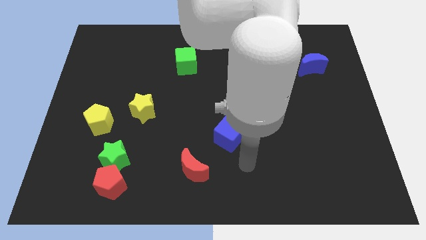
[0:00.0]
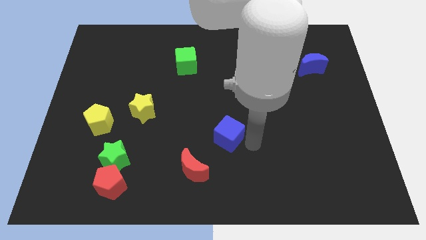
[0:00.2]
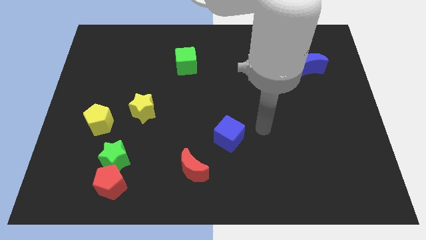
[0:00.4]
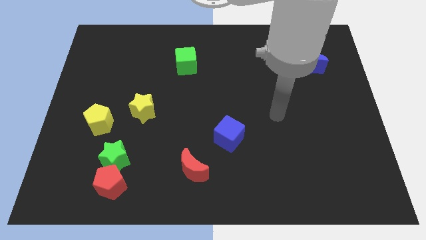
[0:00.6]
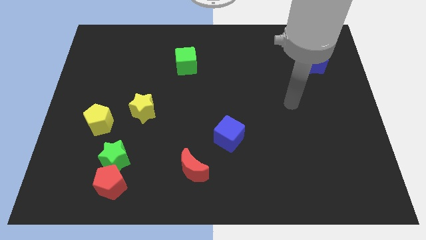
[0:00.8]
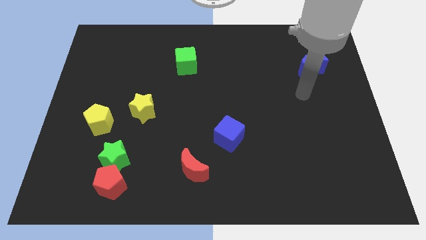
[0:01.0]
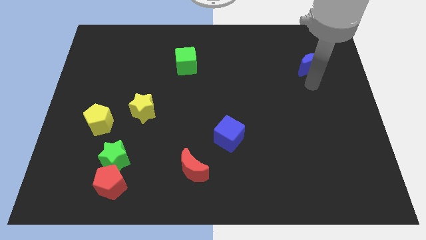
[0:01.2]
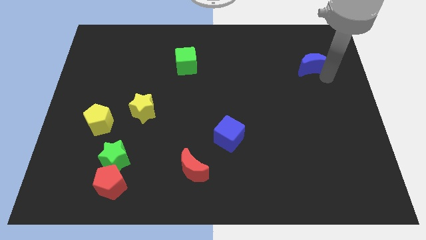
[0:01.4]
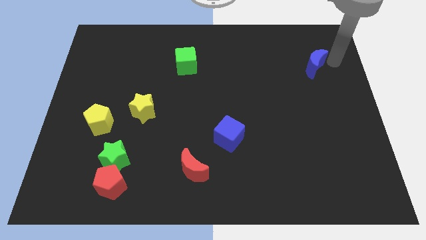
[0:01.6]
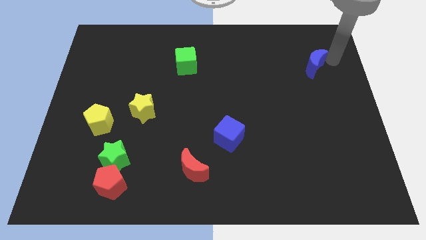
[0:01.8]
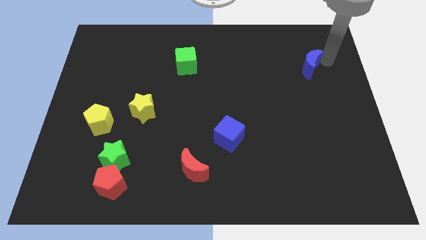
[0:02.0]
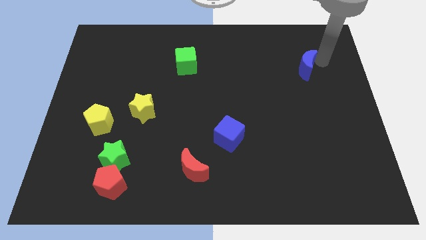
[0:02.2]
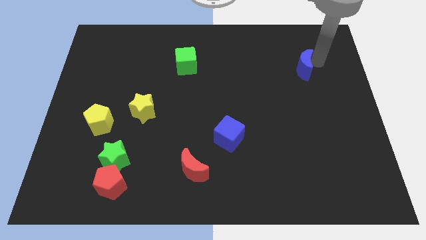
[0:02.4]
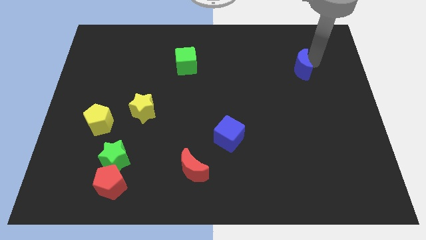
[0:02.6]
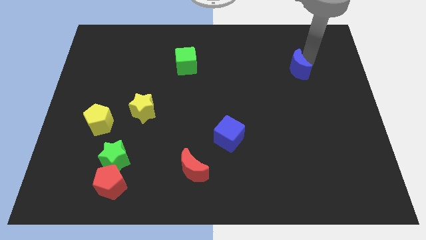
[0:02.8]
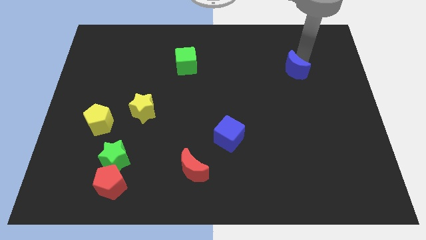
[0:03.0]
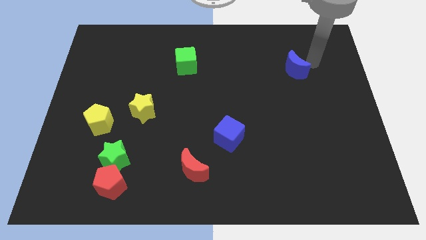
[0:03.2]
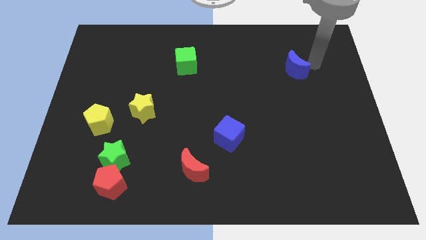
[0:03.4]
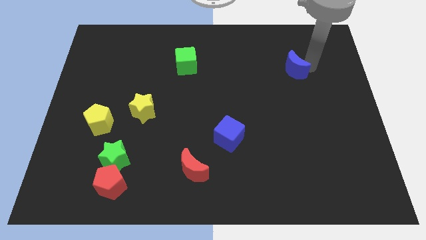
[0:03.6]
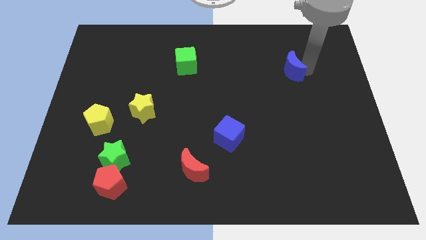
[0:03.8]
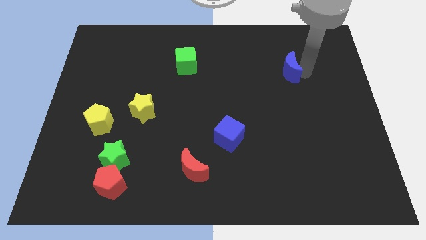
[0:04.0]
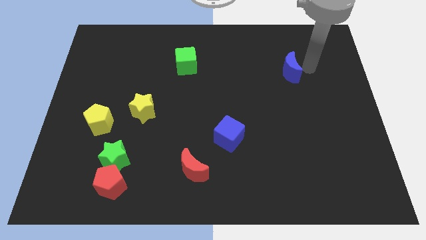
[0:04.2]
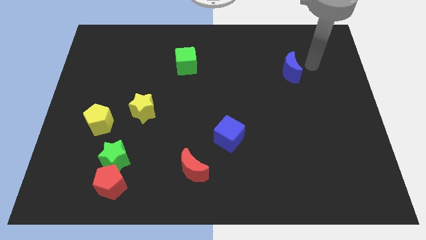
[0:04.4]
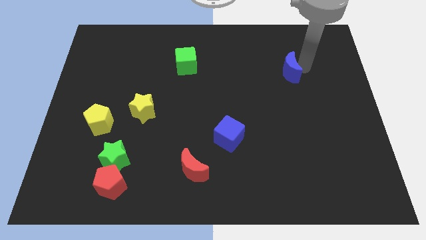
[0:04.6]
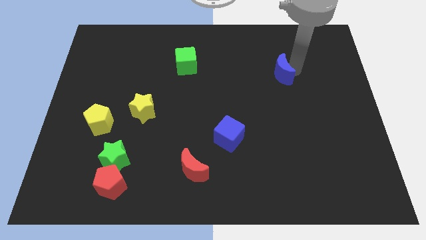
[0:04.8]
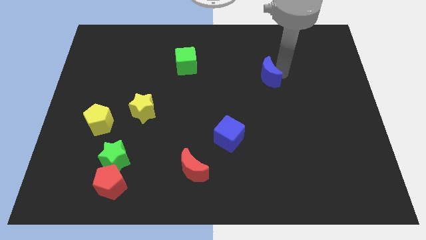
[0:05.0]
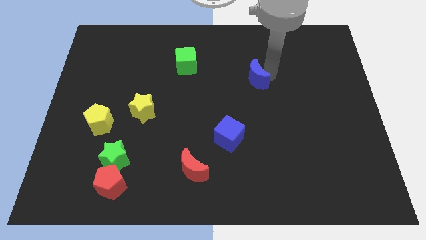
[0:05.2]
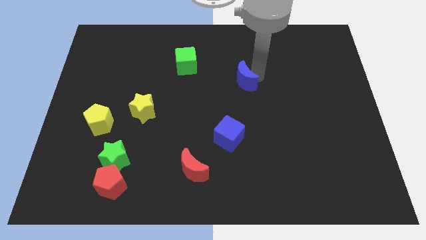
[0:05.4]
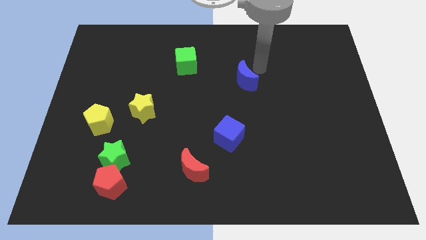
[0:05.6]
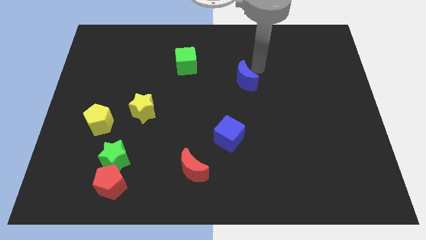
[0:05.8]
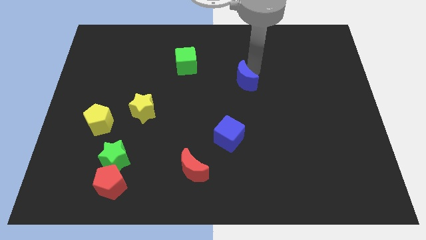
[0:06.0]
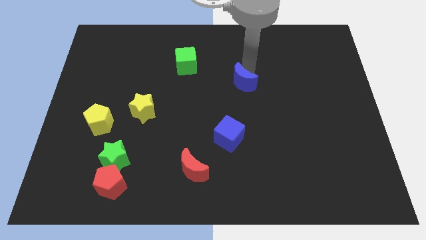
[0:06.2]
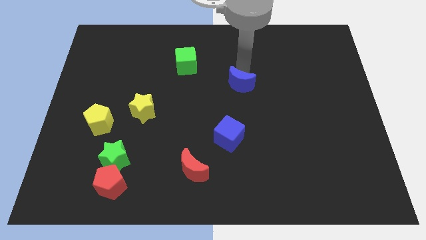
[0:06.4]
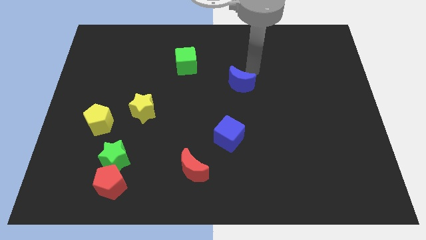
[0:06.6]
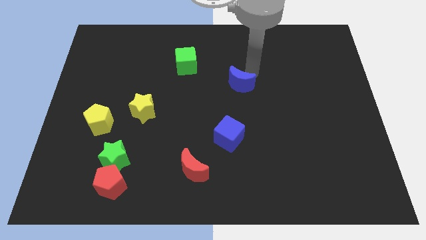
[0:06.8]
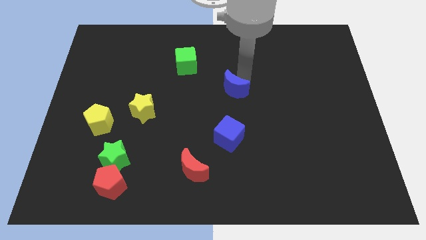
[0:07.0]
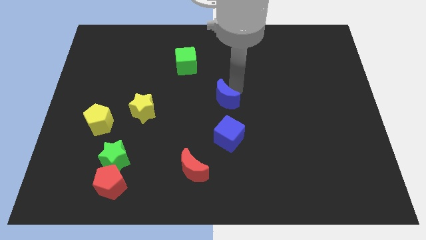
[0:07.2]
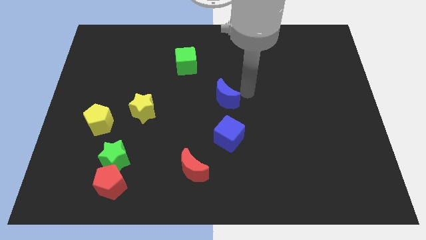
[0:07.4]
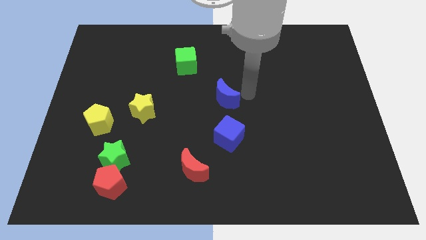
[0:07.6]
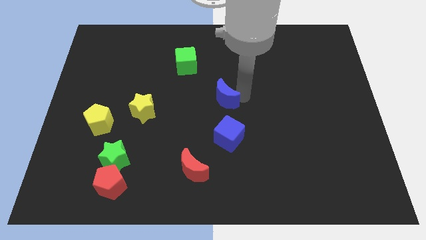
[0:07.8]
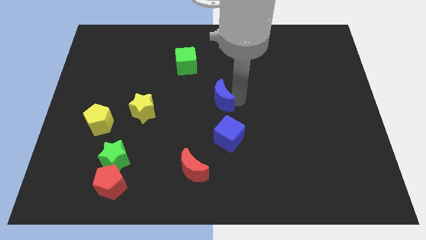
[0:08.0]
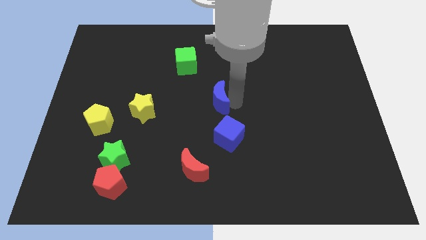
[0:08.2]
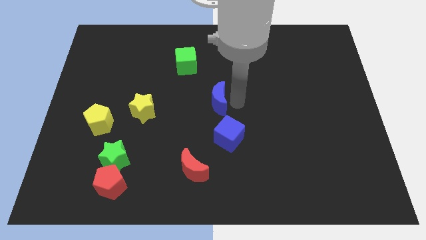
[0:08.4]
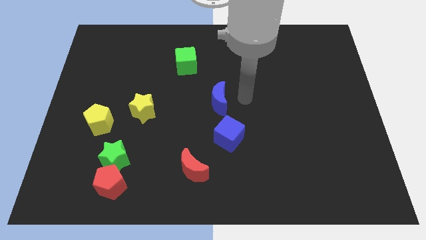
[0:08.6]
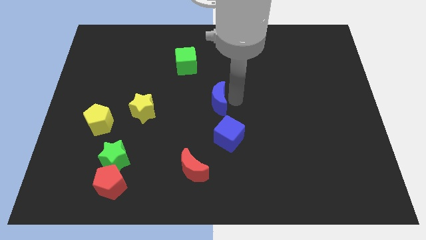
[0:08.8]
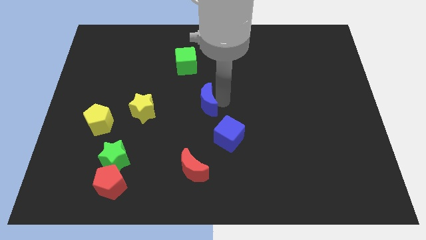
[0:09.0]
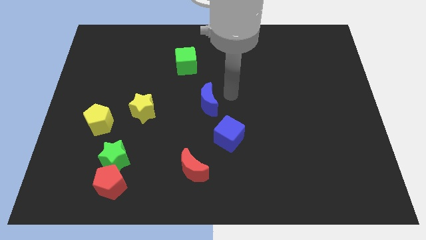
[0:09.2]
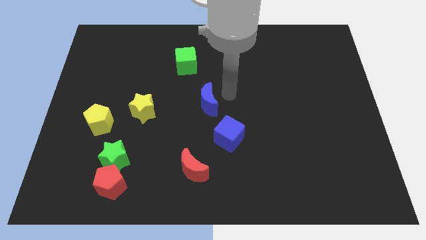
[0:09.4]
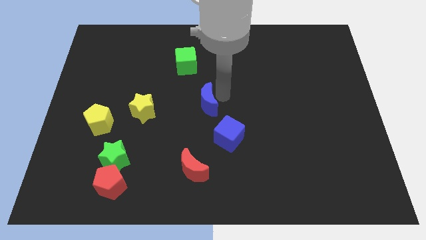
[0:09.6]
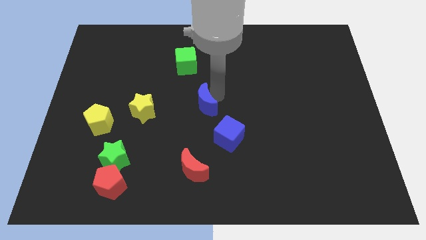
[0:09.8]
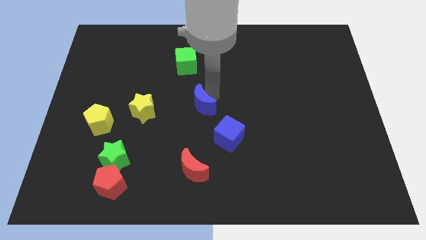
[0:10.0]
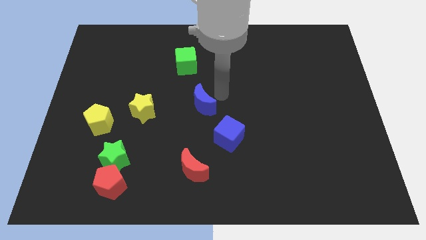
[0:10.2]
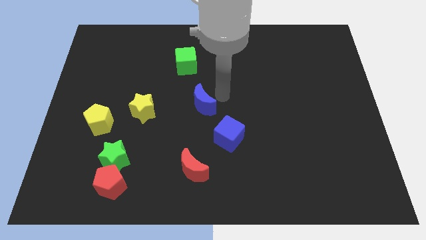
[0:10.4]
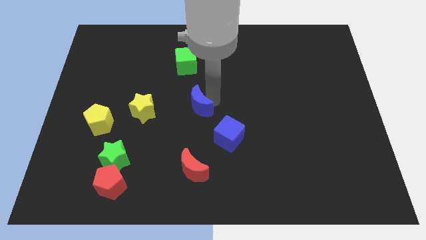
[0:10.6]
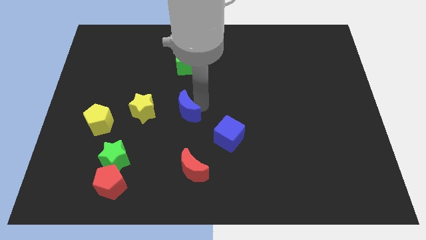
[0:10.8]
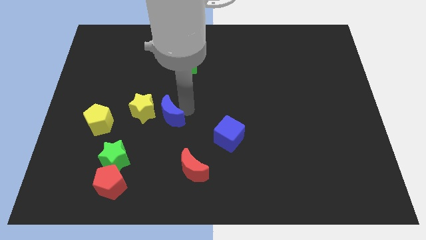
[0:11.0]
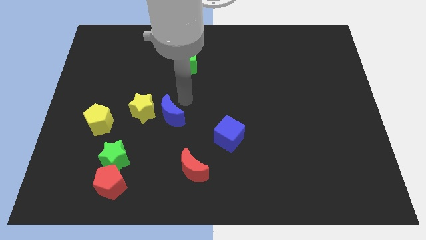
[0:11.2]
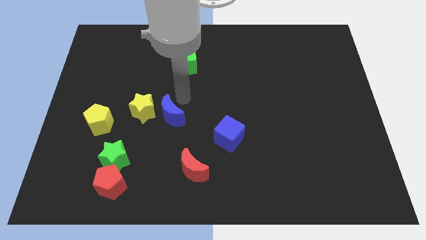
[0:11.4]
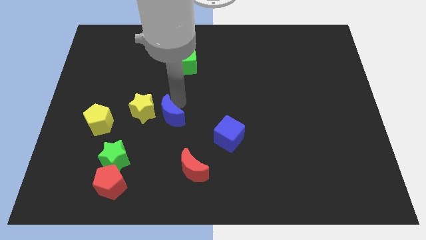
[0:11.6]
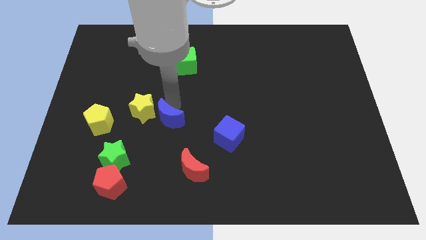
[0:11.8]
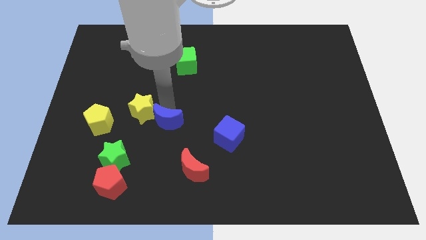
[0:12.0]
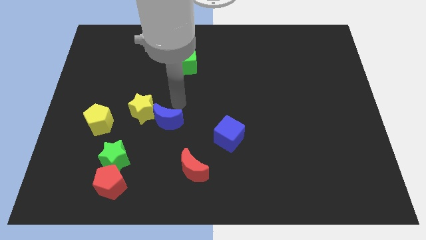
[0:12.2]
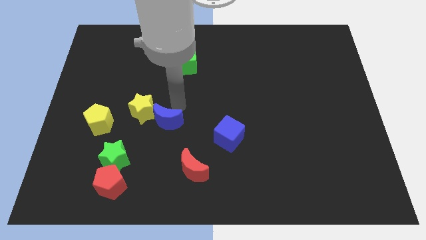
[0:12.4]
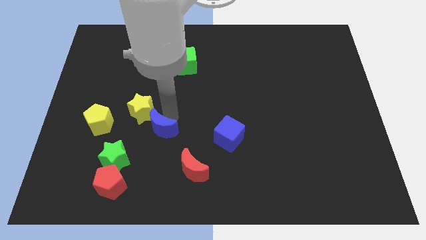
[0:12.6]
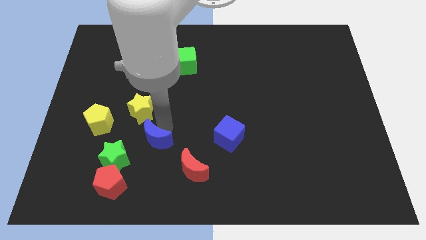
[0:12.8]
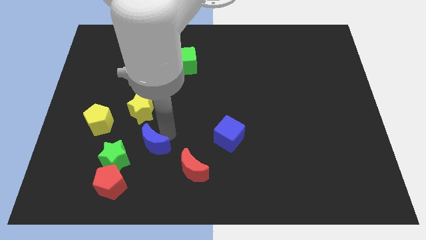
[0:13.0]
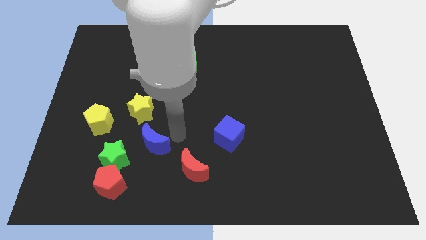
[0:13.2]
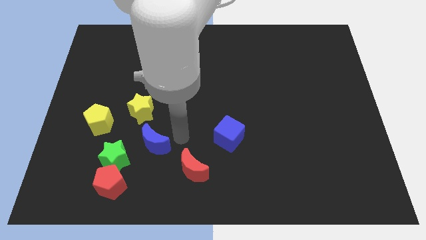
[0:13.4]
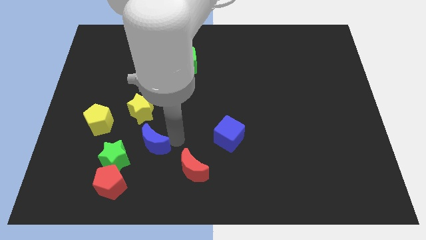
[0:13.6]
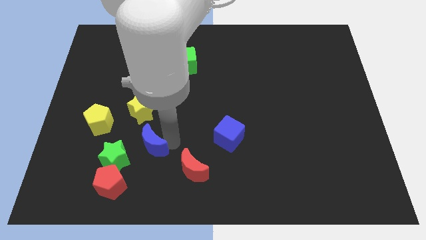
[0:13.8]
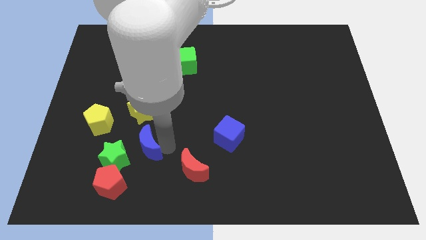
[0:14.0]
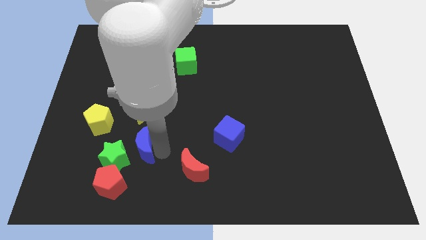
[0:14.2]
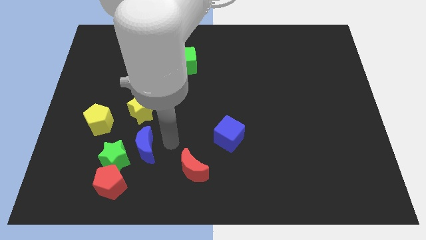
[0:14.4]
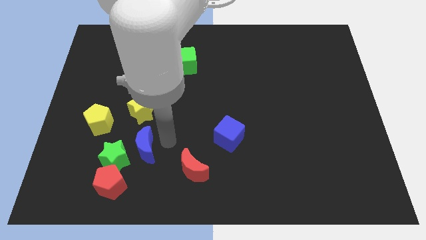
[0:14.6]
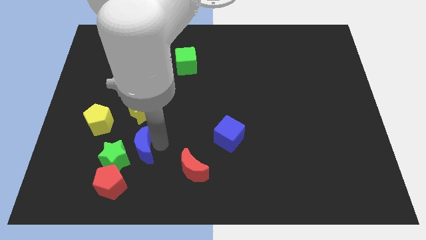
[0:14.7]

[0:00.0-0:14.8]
slide the blue moon close to the green star
